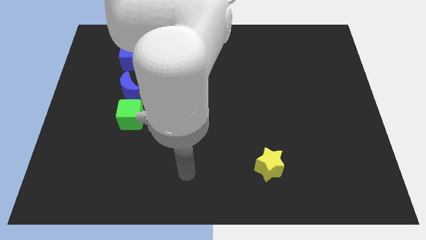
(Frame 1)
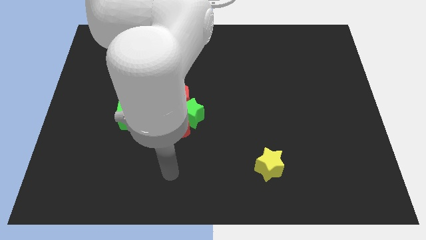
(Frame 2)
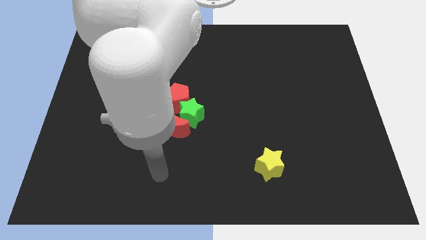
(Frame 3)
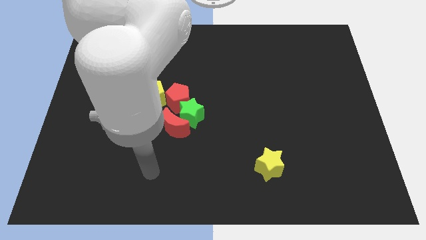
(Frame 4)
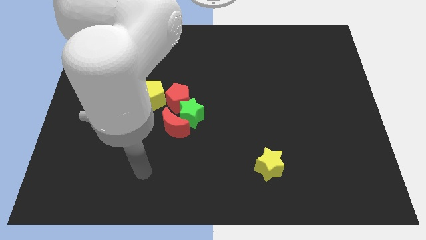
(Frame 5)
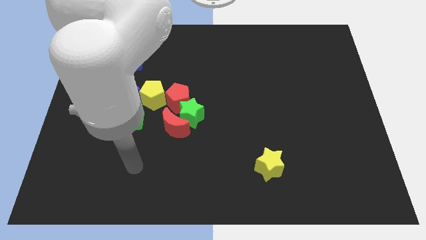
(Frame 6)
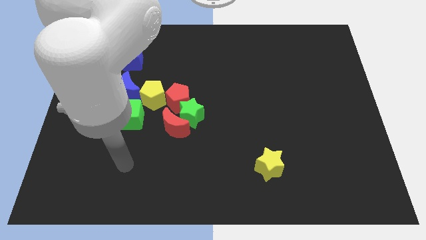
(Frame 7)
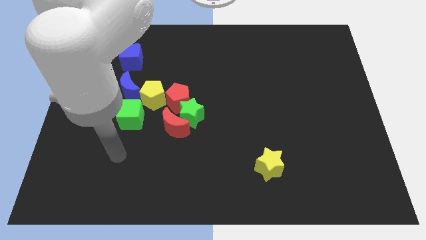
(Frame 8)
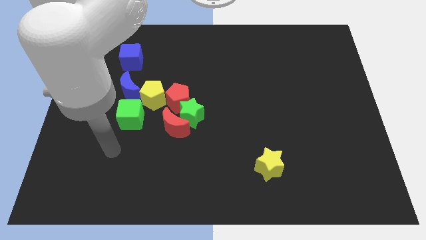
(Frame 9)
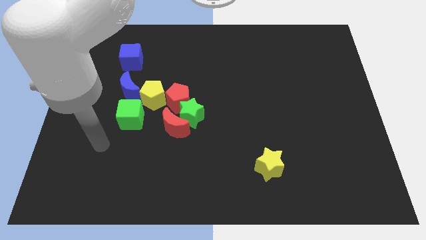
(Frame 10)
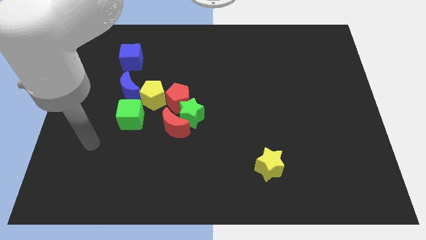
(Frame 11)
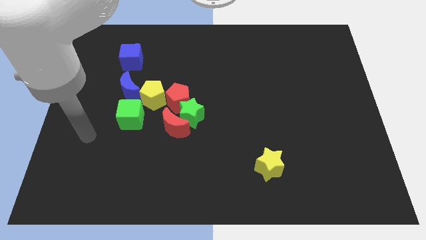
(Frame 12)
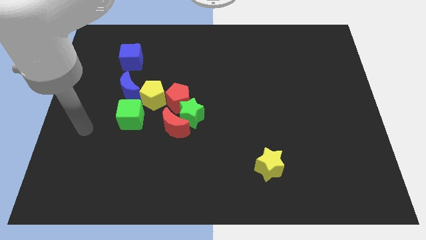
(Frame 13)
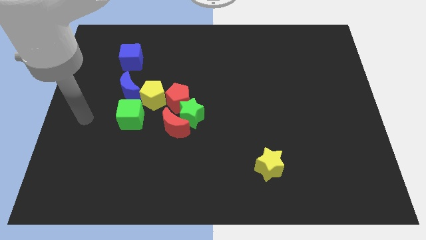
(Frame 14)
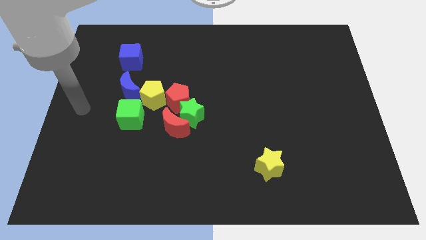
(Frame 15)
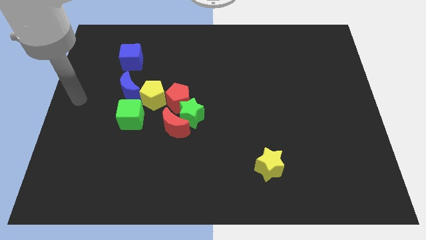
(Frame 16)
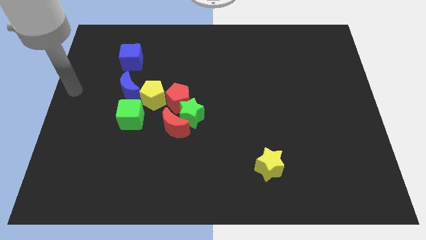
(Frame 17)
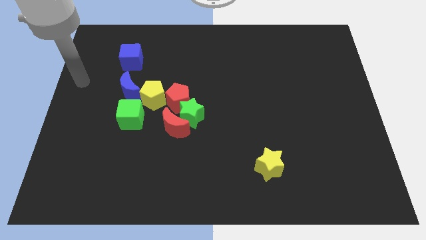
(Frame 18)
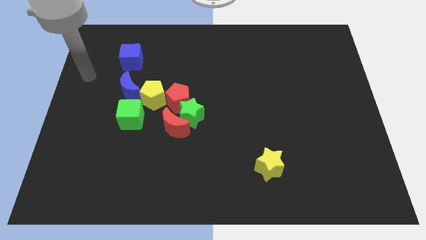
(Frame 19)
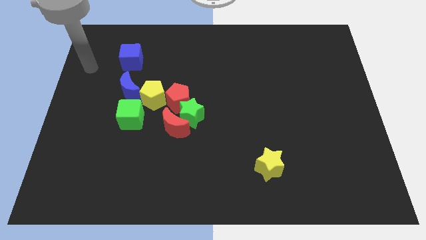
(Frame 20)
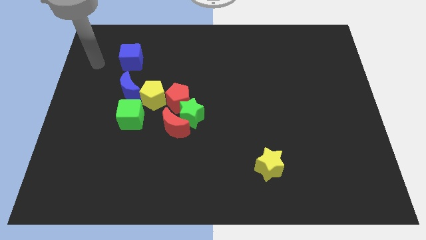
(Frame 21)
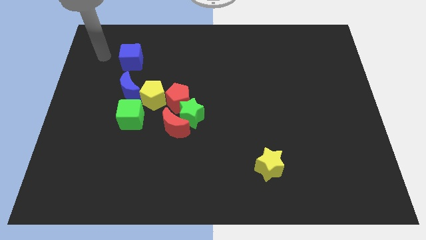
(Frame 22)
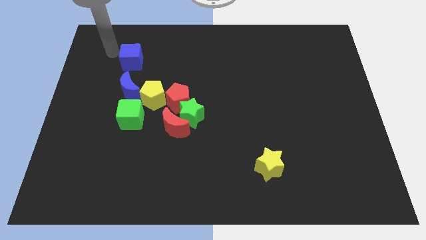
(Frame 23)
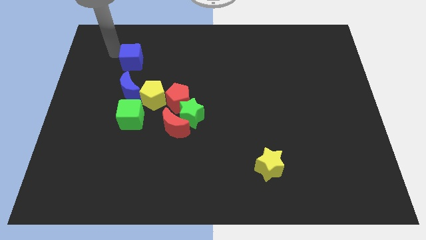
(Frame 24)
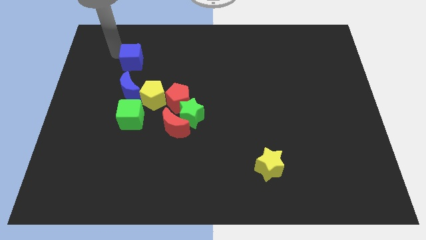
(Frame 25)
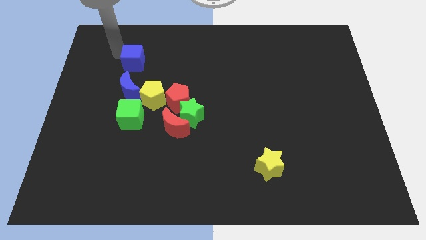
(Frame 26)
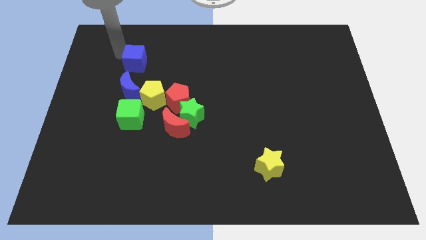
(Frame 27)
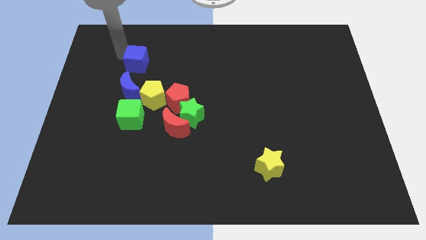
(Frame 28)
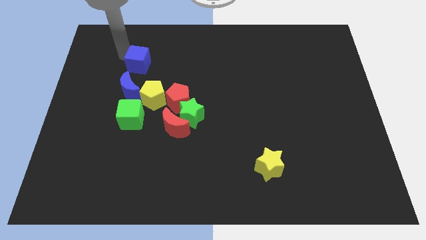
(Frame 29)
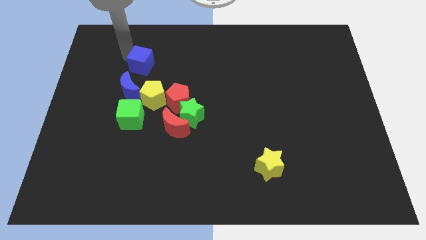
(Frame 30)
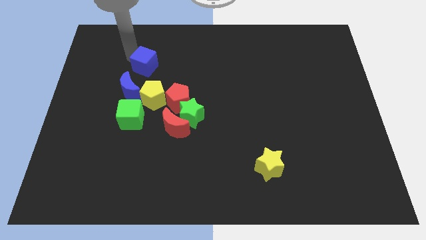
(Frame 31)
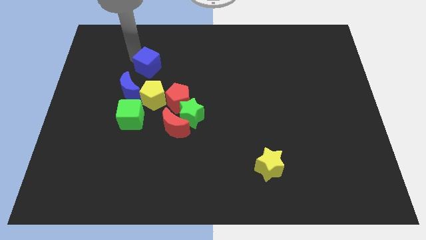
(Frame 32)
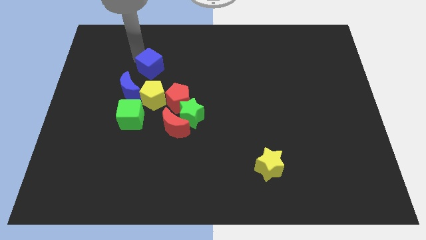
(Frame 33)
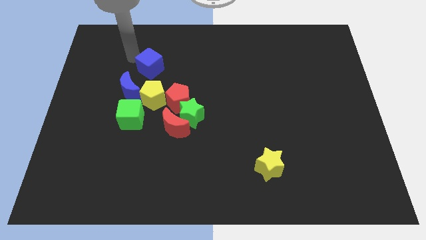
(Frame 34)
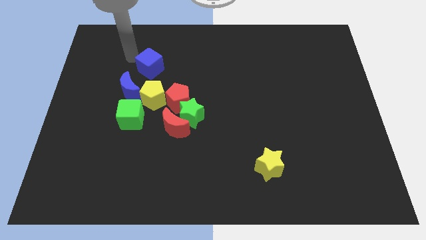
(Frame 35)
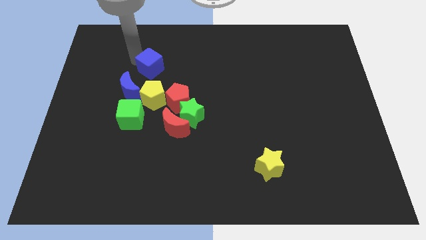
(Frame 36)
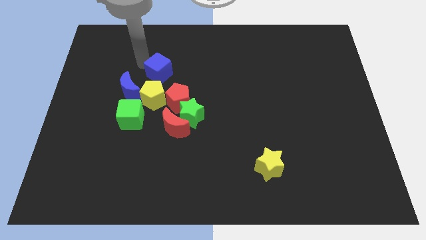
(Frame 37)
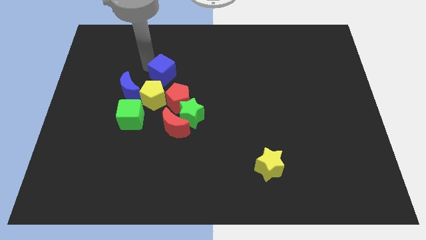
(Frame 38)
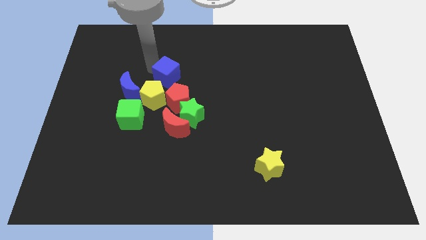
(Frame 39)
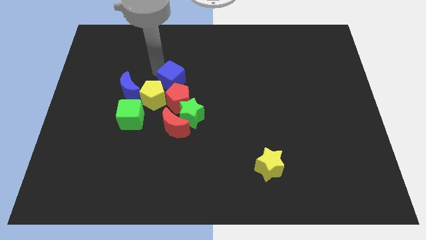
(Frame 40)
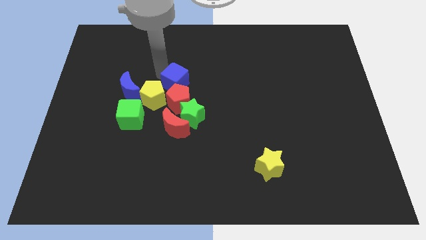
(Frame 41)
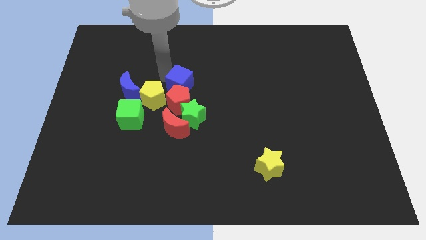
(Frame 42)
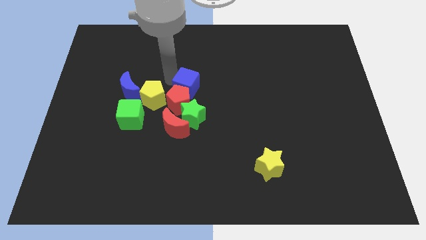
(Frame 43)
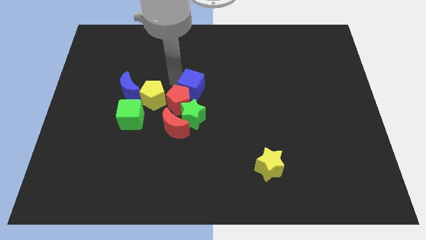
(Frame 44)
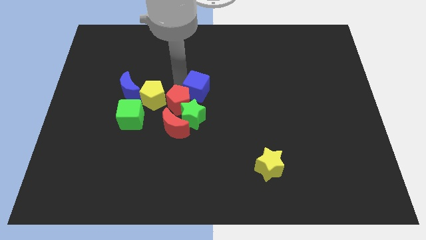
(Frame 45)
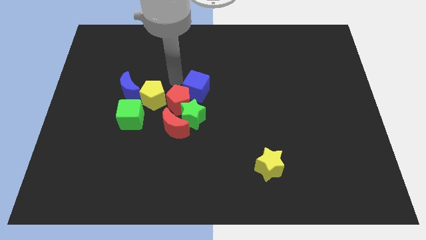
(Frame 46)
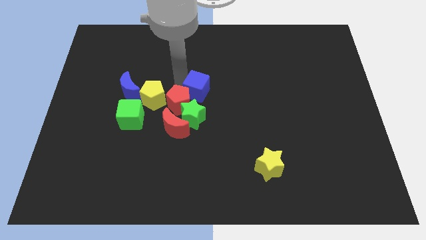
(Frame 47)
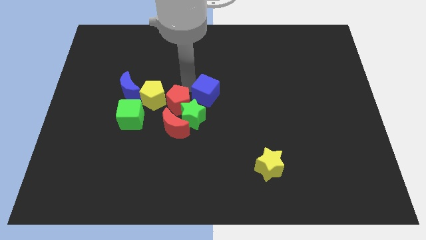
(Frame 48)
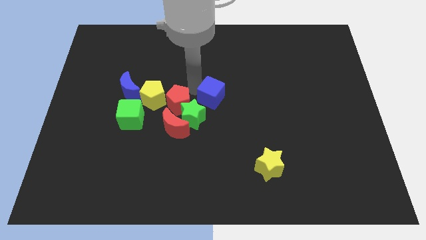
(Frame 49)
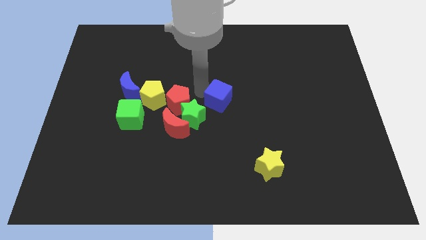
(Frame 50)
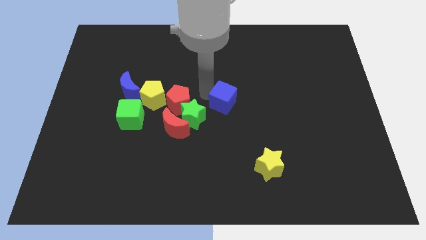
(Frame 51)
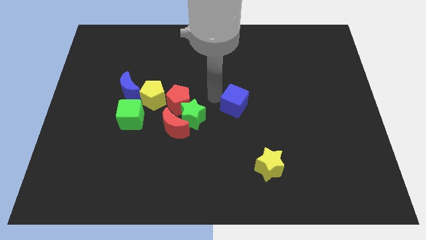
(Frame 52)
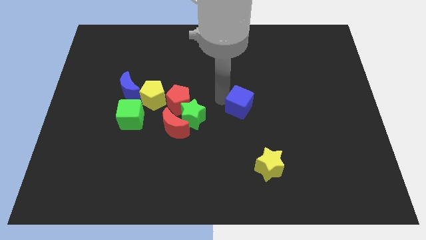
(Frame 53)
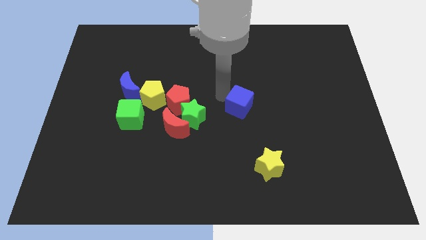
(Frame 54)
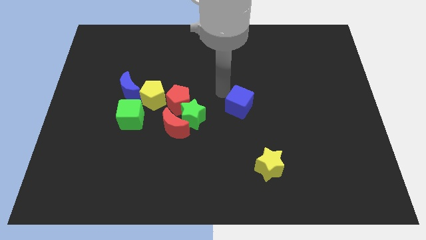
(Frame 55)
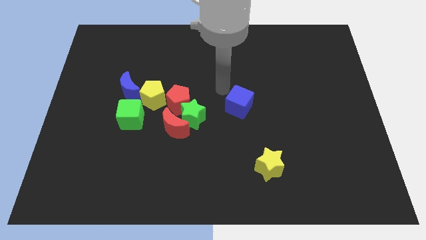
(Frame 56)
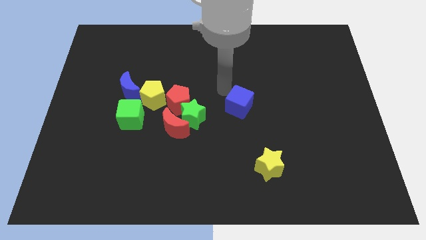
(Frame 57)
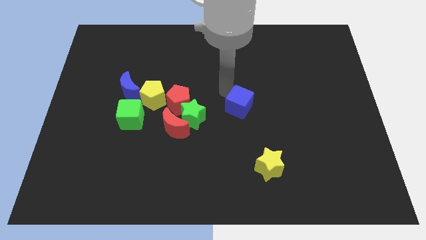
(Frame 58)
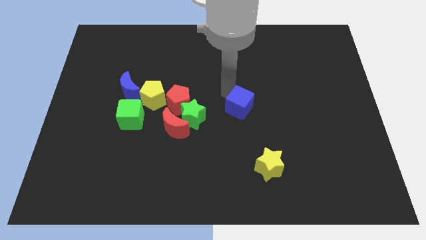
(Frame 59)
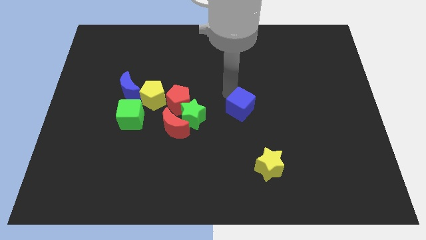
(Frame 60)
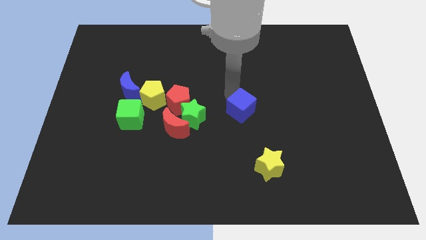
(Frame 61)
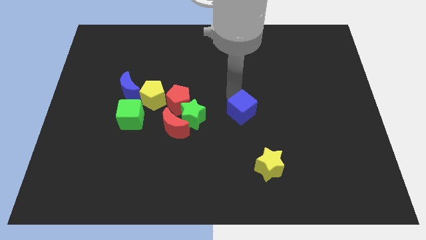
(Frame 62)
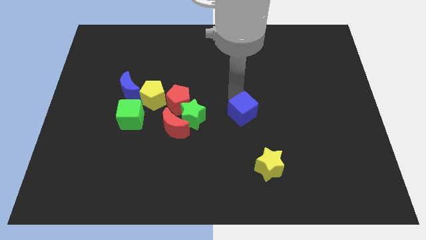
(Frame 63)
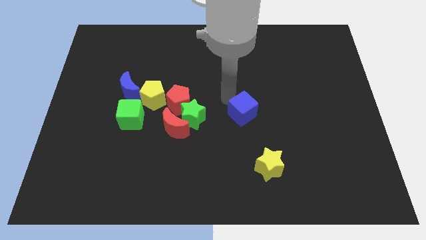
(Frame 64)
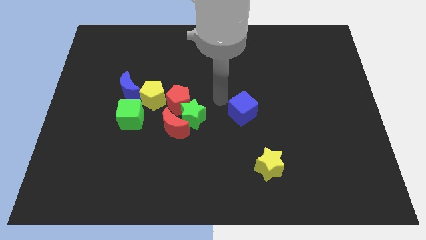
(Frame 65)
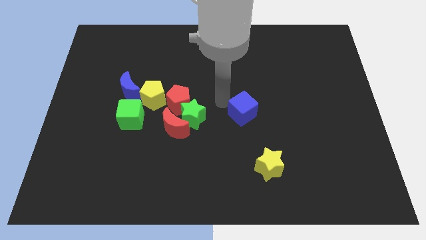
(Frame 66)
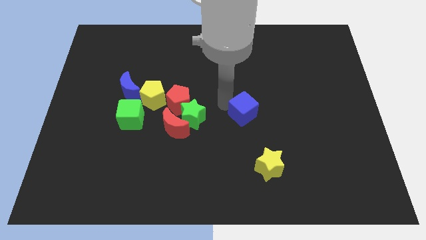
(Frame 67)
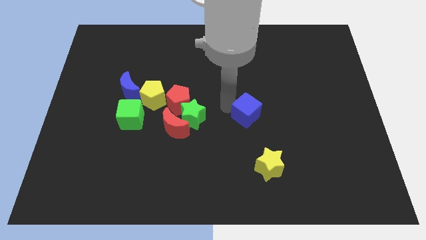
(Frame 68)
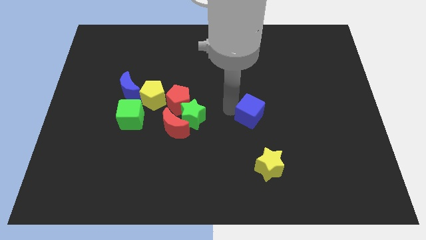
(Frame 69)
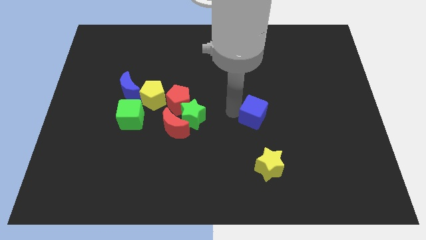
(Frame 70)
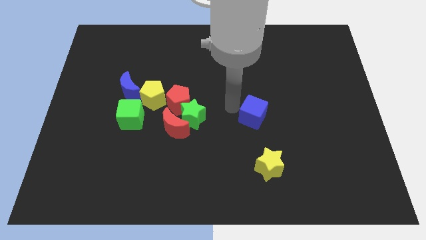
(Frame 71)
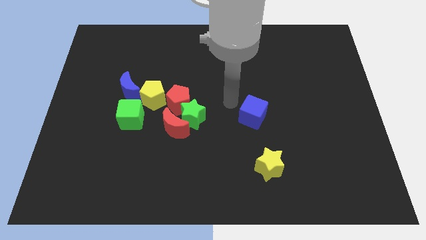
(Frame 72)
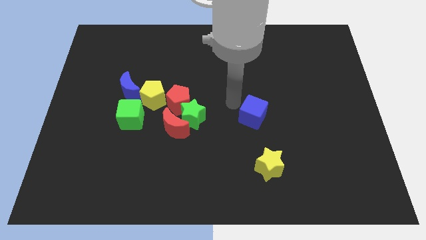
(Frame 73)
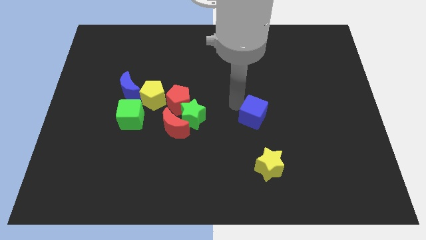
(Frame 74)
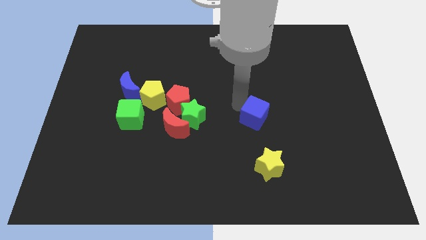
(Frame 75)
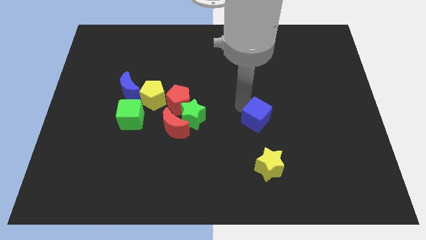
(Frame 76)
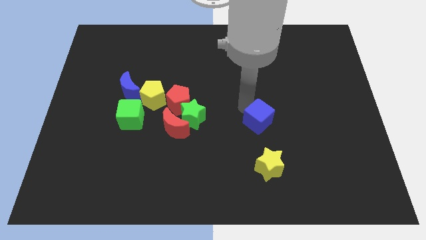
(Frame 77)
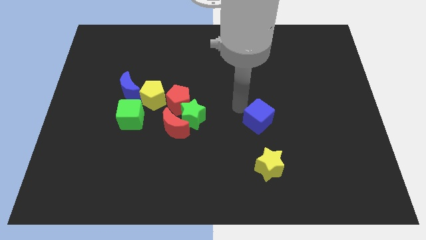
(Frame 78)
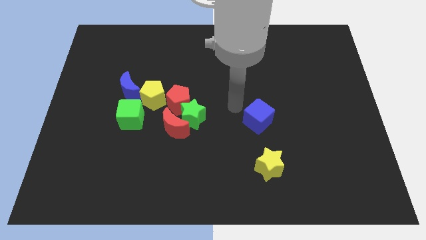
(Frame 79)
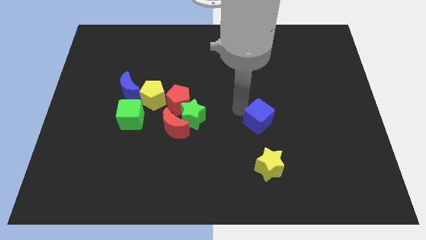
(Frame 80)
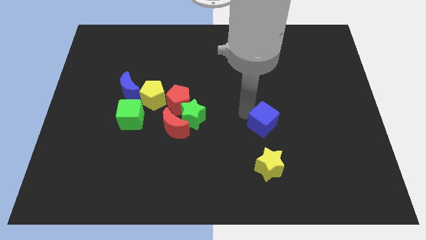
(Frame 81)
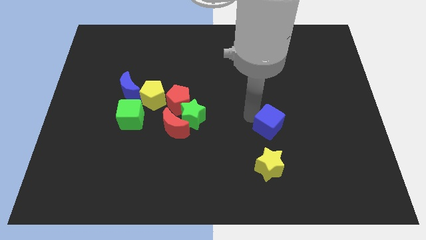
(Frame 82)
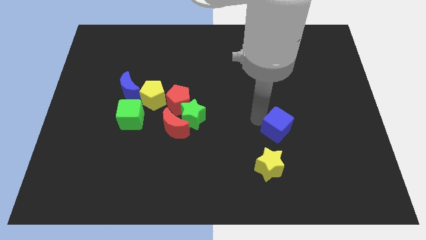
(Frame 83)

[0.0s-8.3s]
move the blue cube to the top right side of the yellow star
